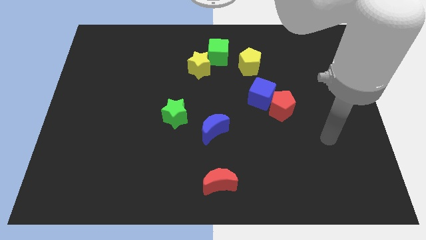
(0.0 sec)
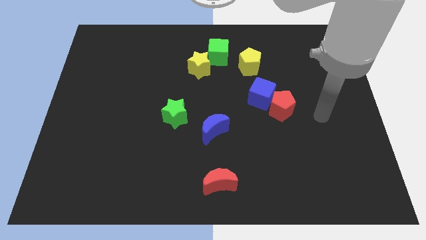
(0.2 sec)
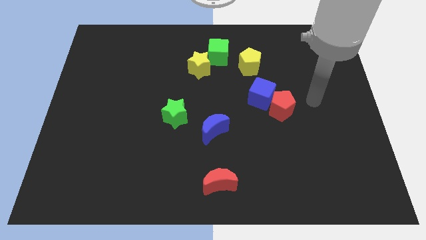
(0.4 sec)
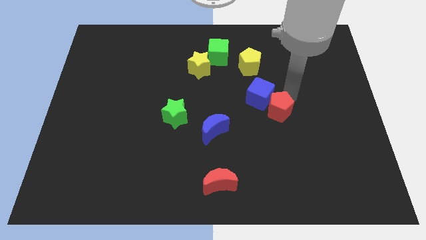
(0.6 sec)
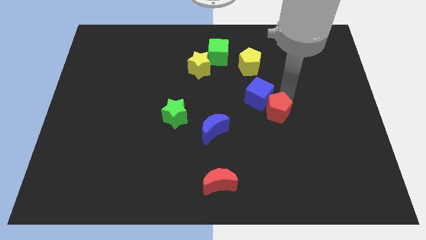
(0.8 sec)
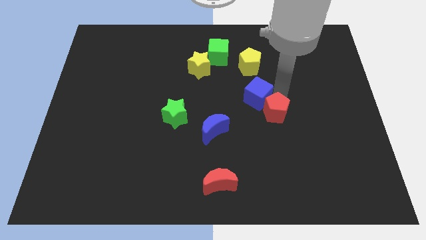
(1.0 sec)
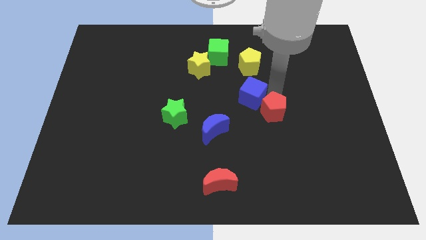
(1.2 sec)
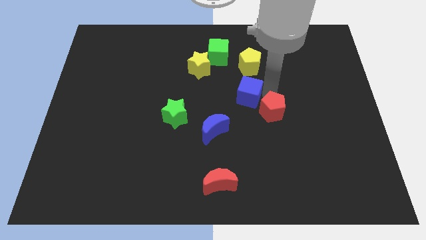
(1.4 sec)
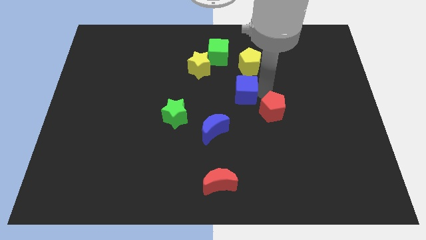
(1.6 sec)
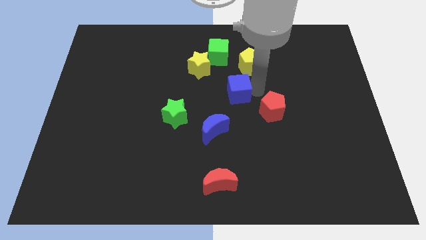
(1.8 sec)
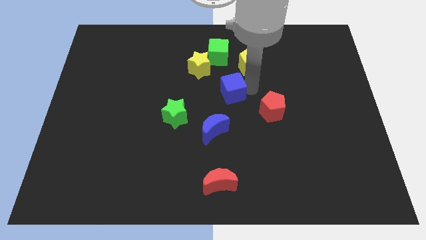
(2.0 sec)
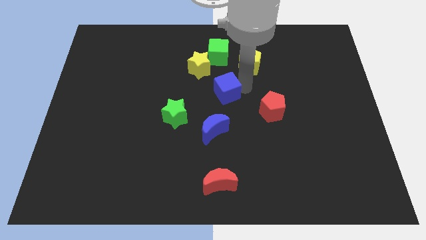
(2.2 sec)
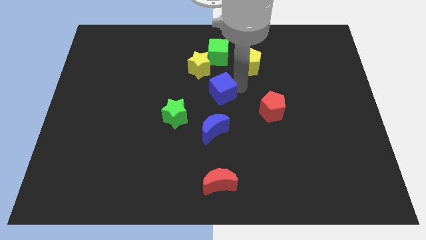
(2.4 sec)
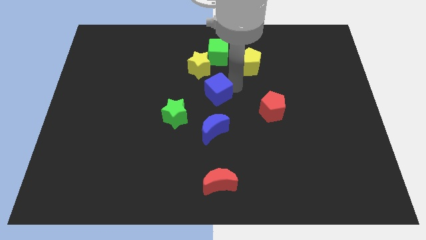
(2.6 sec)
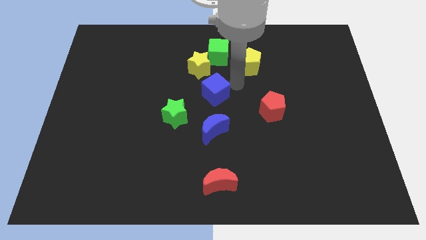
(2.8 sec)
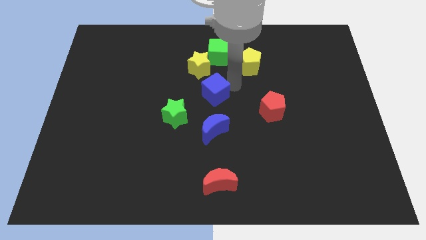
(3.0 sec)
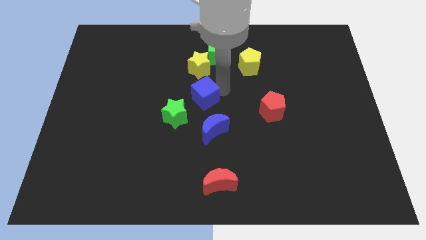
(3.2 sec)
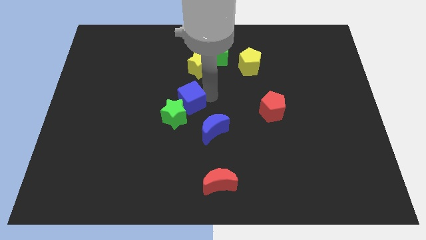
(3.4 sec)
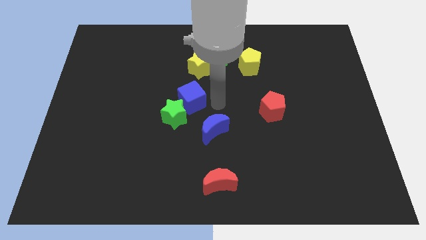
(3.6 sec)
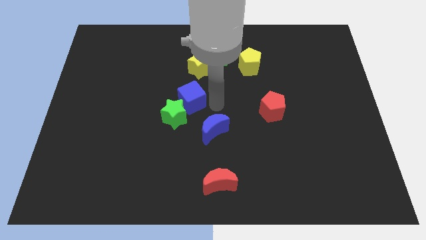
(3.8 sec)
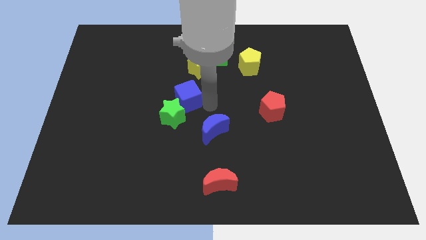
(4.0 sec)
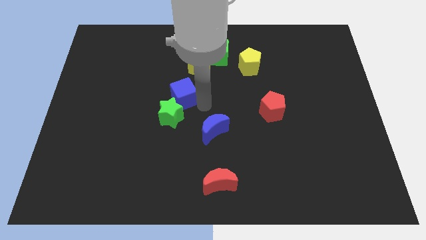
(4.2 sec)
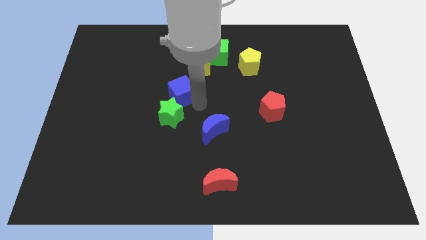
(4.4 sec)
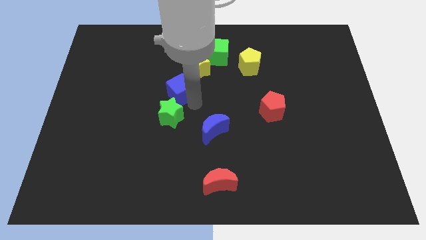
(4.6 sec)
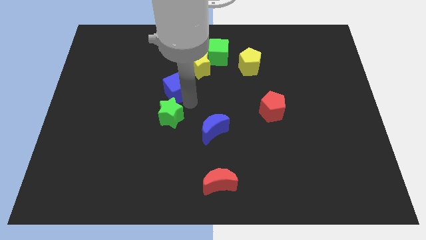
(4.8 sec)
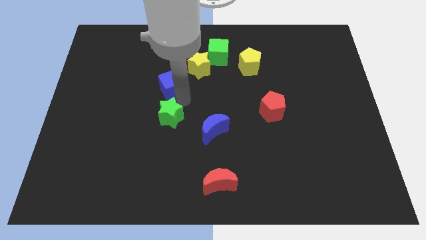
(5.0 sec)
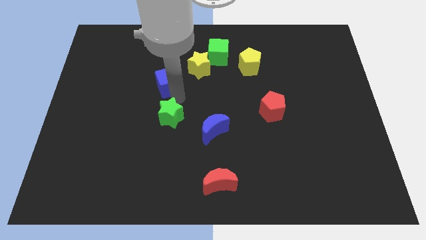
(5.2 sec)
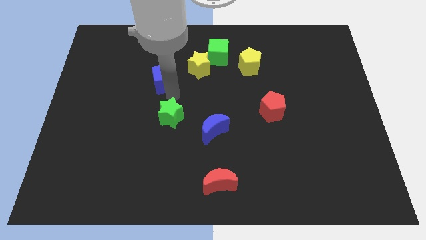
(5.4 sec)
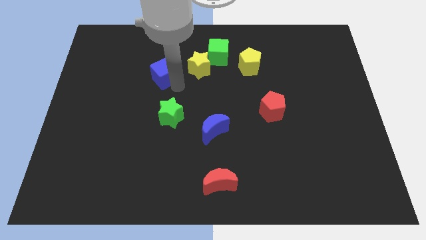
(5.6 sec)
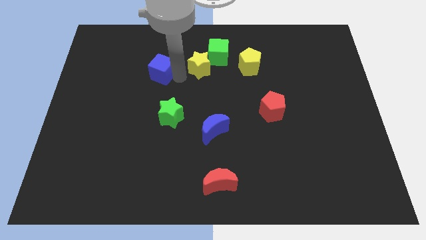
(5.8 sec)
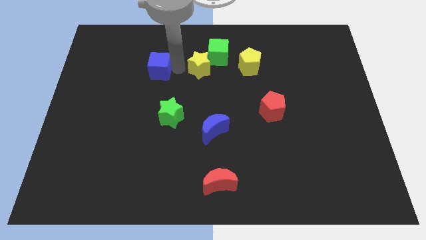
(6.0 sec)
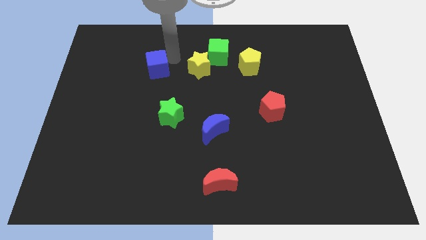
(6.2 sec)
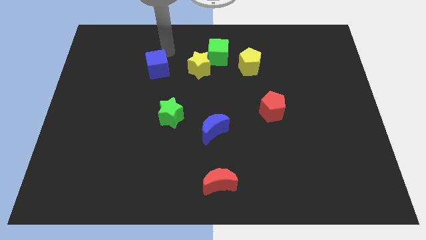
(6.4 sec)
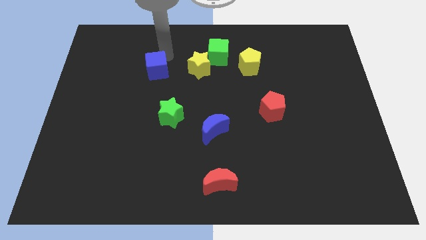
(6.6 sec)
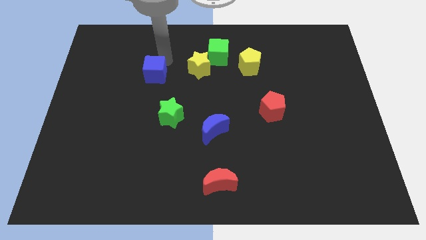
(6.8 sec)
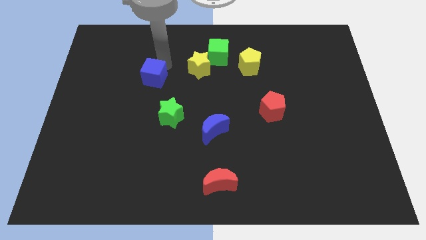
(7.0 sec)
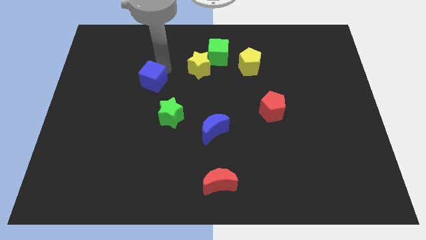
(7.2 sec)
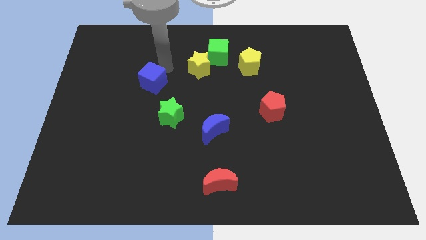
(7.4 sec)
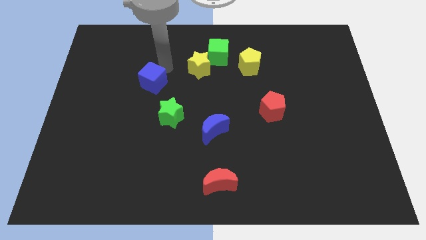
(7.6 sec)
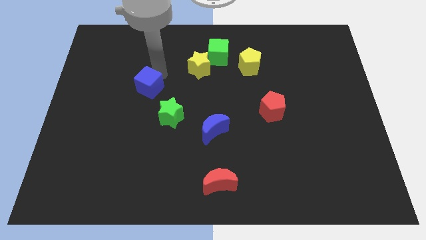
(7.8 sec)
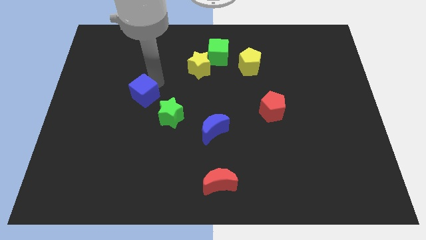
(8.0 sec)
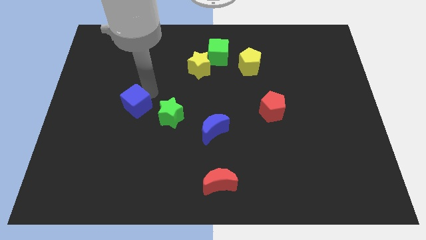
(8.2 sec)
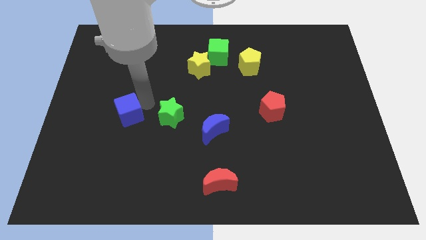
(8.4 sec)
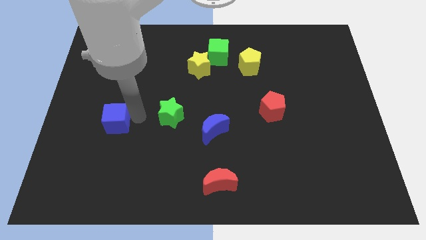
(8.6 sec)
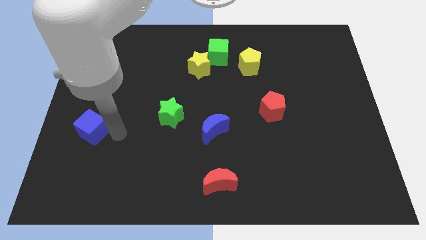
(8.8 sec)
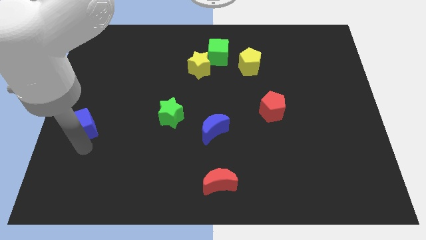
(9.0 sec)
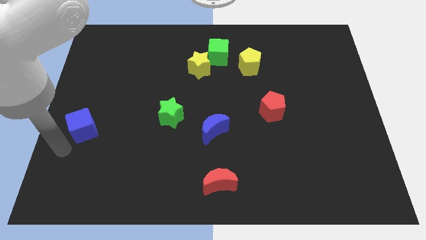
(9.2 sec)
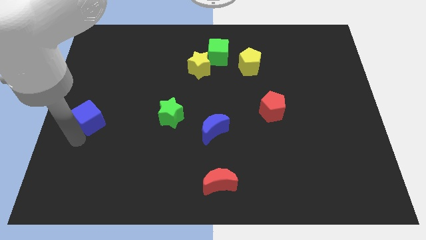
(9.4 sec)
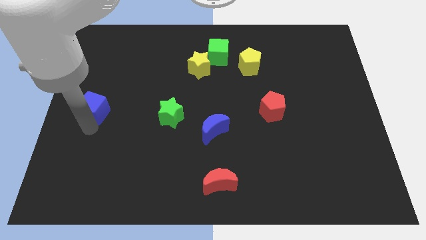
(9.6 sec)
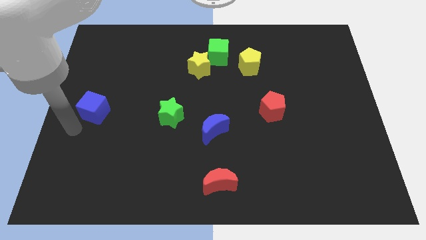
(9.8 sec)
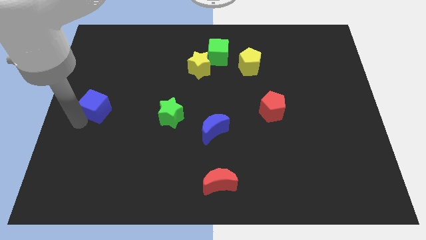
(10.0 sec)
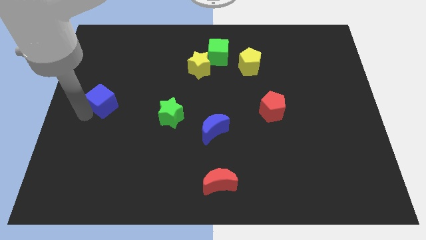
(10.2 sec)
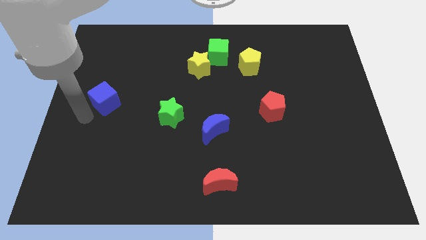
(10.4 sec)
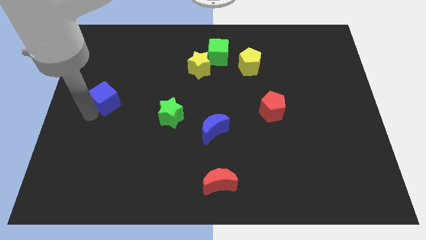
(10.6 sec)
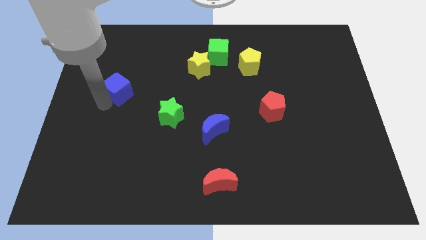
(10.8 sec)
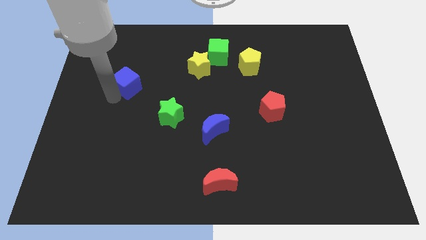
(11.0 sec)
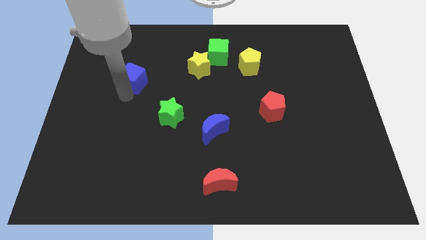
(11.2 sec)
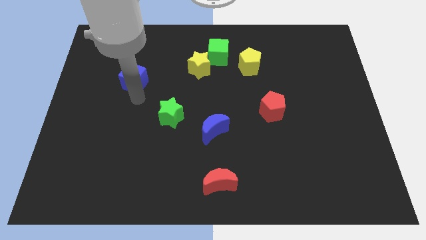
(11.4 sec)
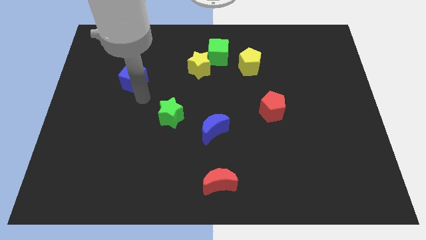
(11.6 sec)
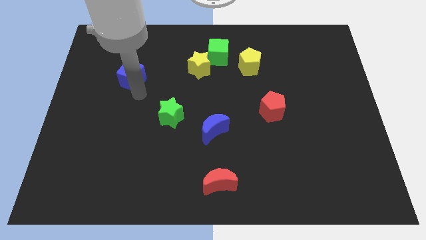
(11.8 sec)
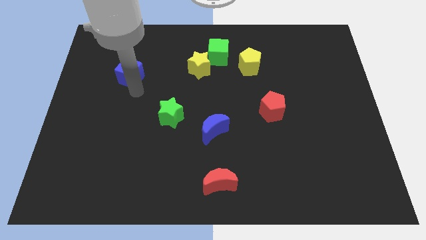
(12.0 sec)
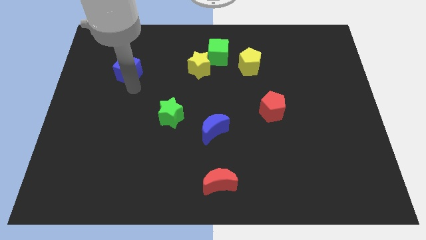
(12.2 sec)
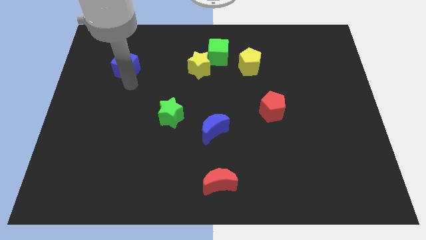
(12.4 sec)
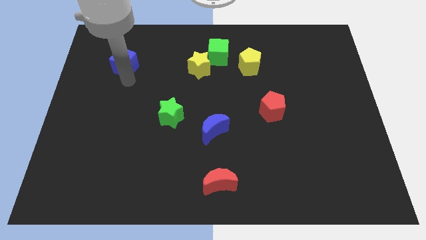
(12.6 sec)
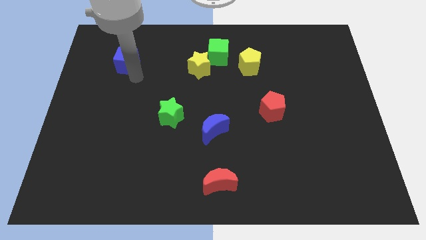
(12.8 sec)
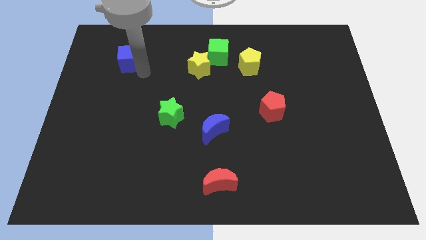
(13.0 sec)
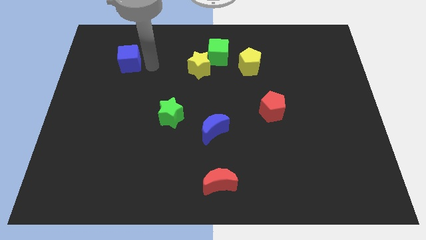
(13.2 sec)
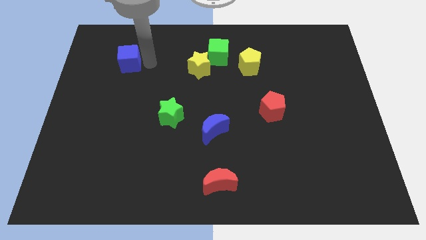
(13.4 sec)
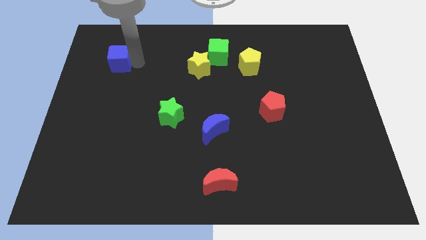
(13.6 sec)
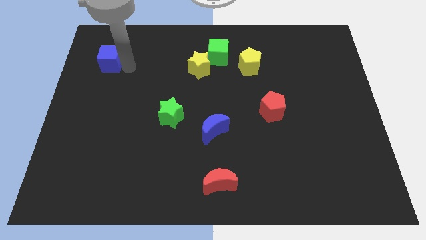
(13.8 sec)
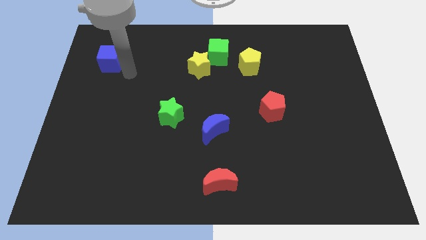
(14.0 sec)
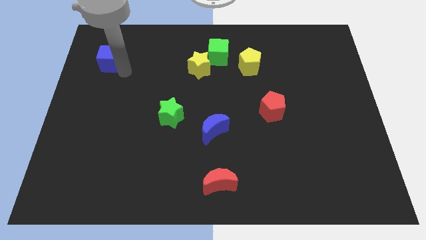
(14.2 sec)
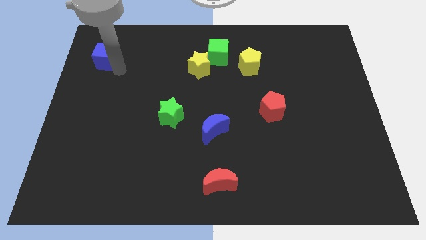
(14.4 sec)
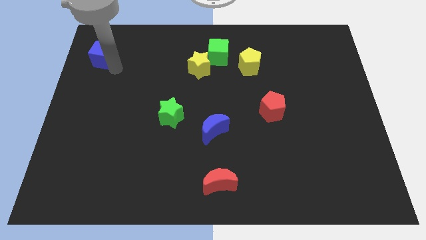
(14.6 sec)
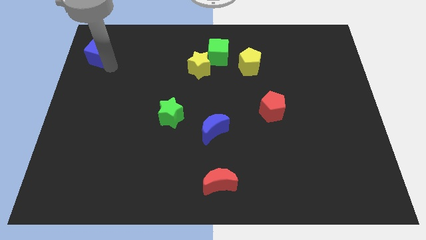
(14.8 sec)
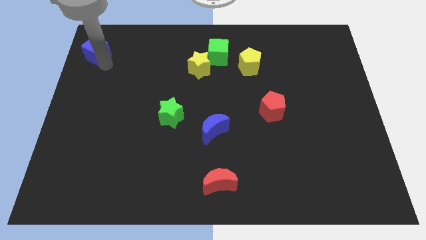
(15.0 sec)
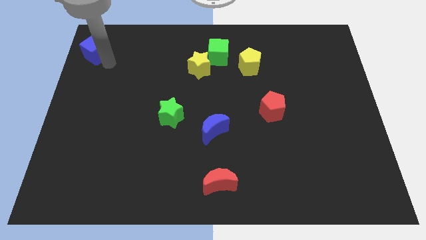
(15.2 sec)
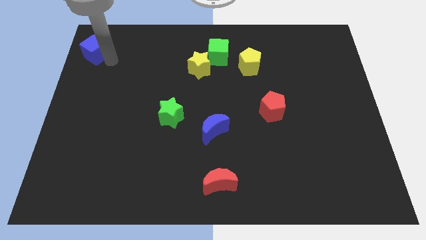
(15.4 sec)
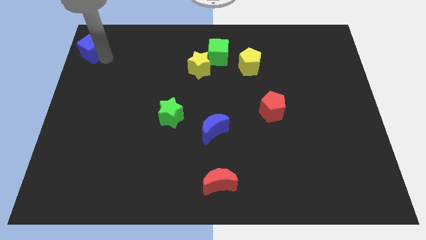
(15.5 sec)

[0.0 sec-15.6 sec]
put the blue cube to the top left of the board
